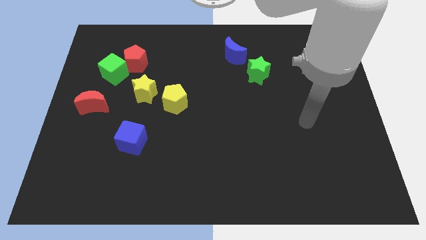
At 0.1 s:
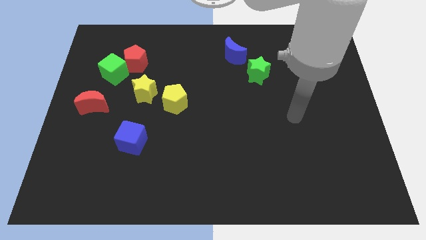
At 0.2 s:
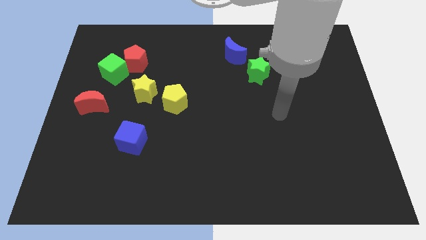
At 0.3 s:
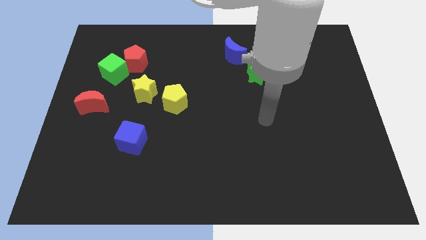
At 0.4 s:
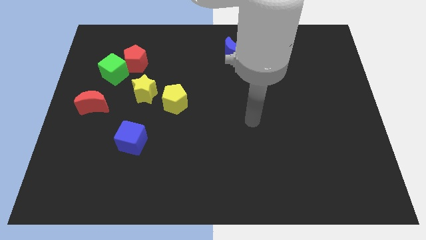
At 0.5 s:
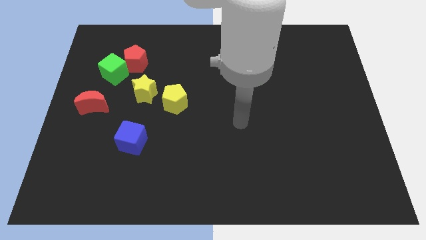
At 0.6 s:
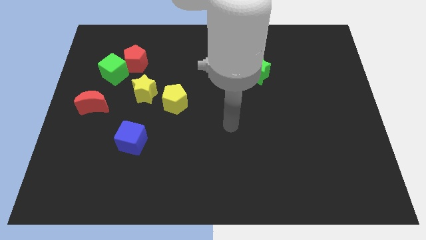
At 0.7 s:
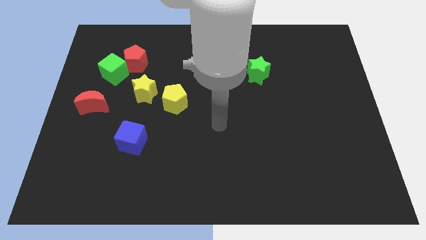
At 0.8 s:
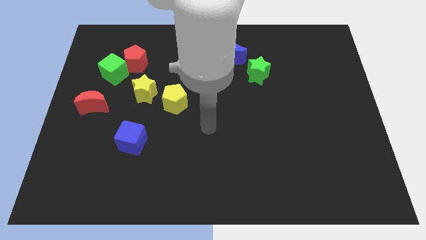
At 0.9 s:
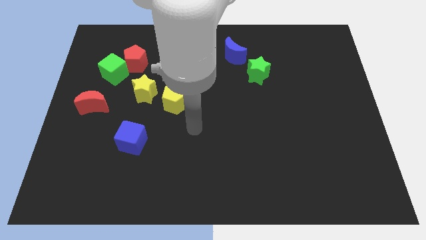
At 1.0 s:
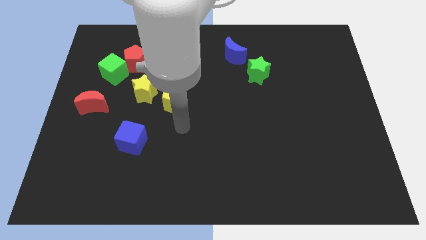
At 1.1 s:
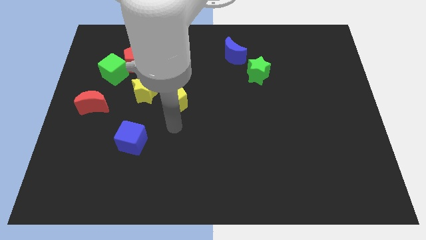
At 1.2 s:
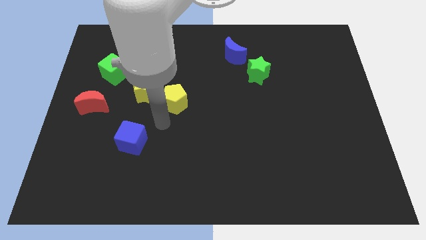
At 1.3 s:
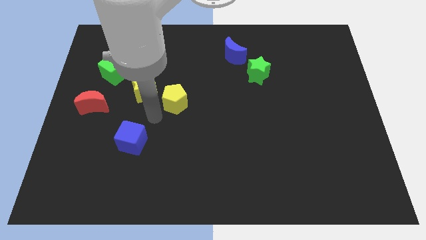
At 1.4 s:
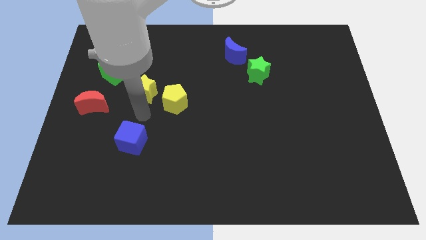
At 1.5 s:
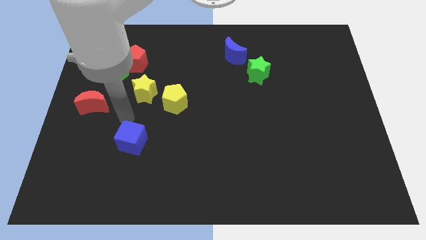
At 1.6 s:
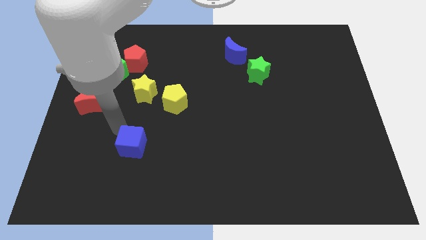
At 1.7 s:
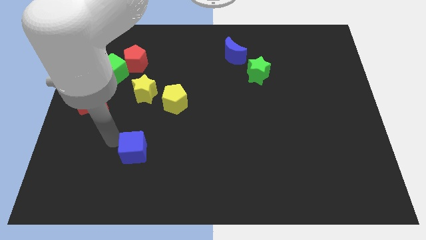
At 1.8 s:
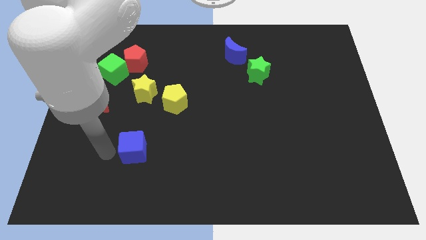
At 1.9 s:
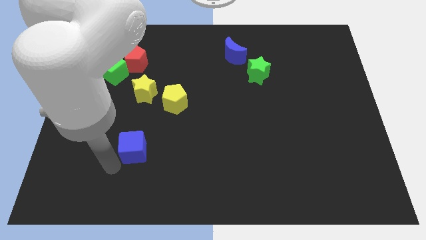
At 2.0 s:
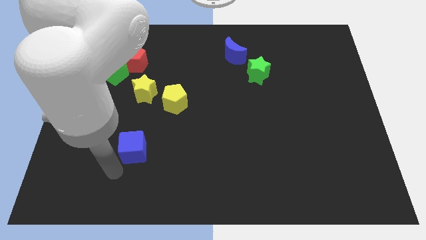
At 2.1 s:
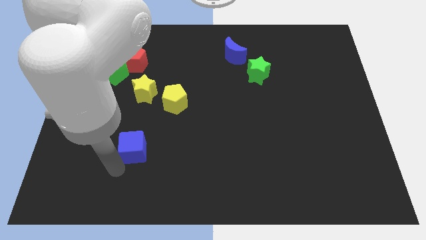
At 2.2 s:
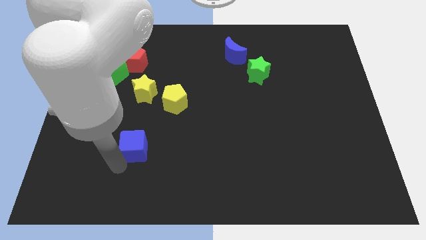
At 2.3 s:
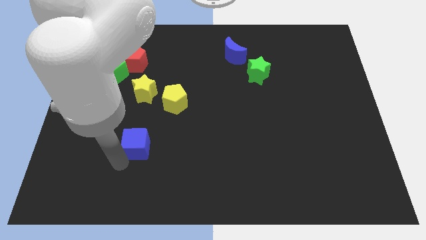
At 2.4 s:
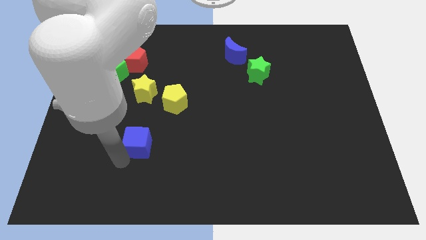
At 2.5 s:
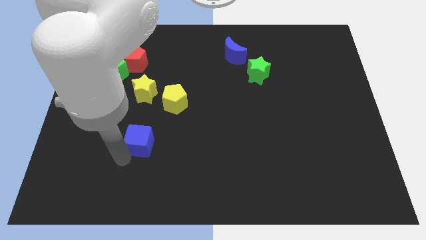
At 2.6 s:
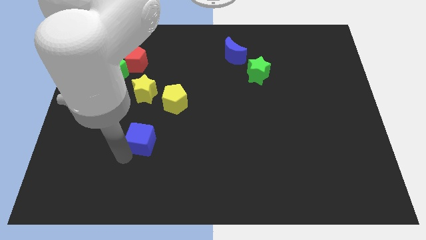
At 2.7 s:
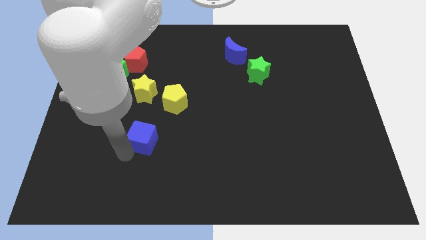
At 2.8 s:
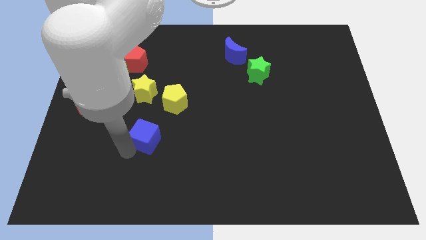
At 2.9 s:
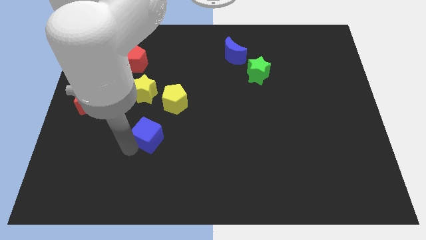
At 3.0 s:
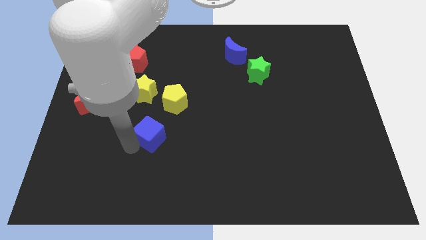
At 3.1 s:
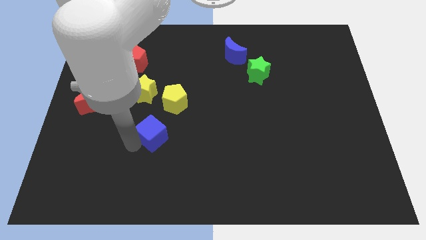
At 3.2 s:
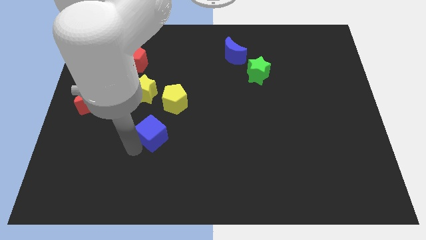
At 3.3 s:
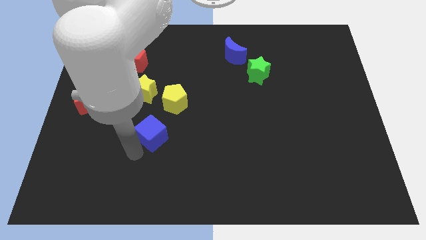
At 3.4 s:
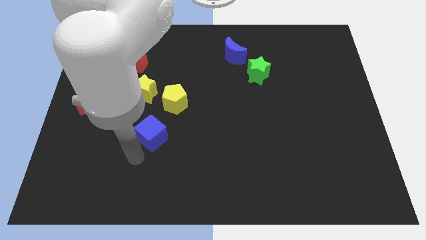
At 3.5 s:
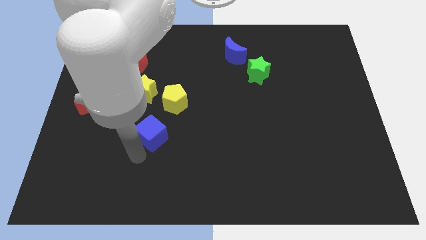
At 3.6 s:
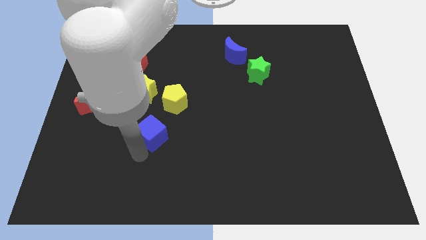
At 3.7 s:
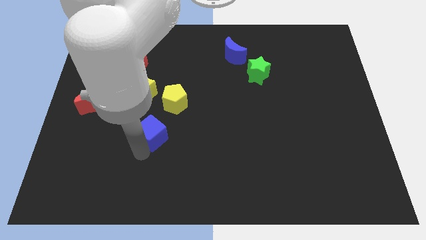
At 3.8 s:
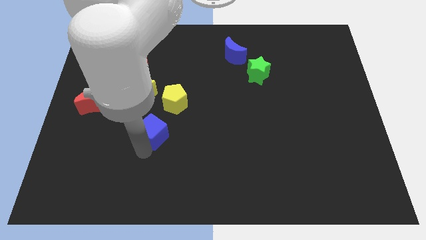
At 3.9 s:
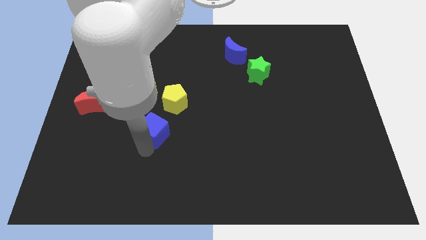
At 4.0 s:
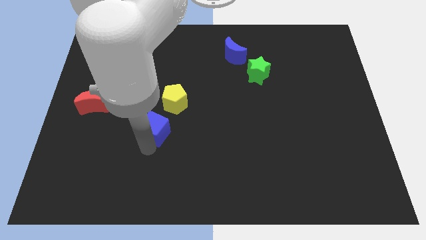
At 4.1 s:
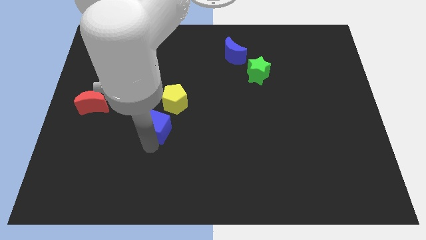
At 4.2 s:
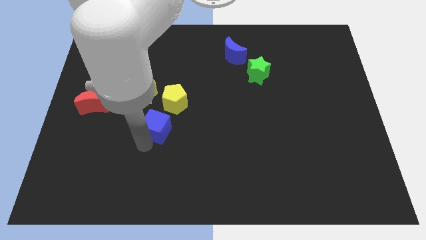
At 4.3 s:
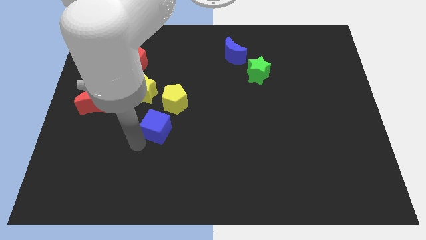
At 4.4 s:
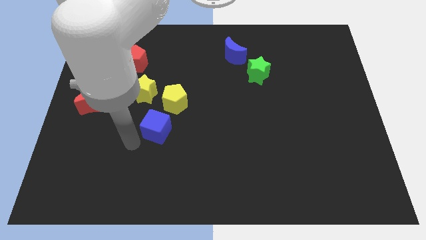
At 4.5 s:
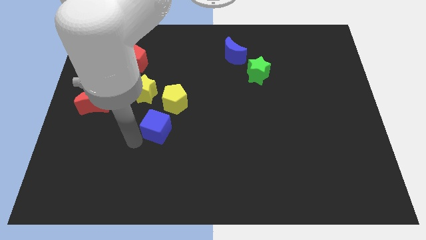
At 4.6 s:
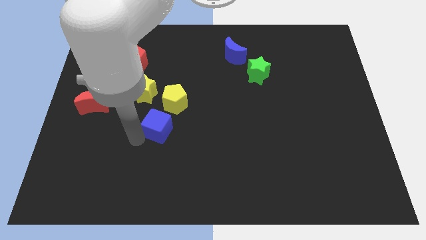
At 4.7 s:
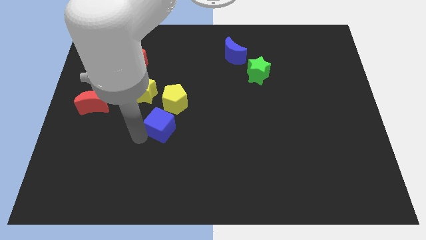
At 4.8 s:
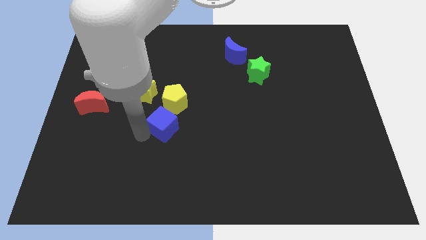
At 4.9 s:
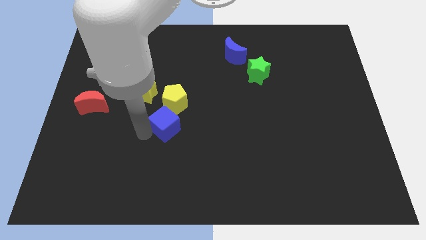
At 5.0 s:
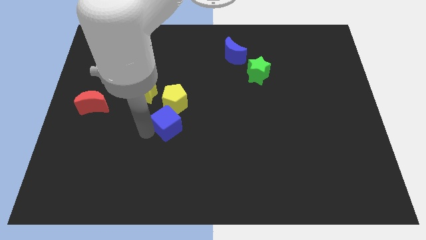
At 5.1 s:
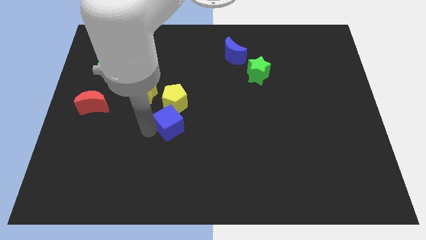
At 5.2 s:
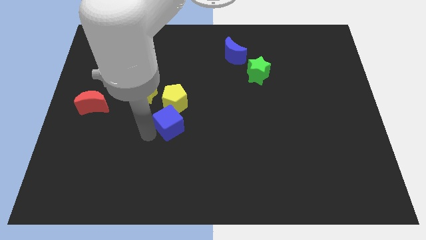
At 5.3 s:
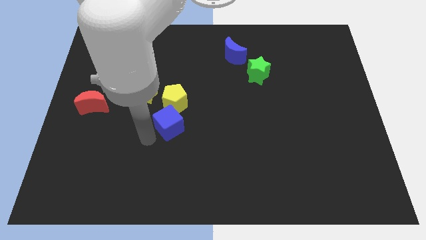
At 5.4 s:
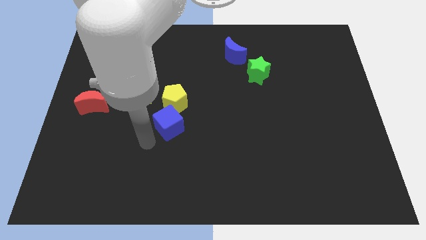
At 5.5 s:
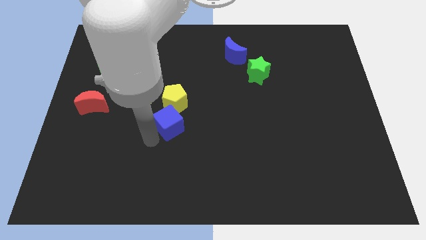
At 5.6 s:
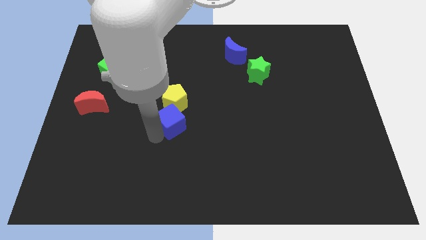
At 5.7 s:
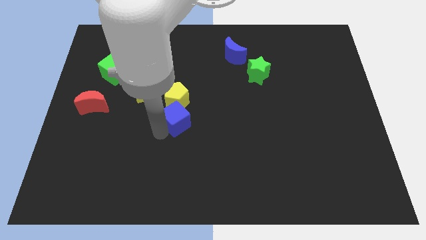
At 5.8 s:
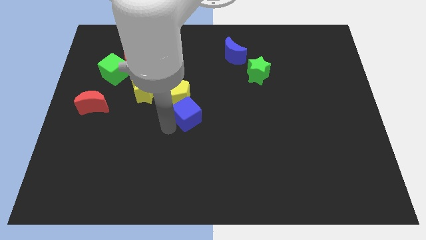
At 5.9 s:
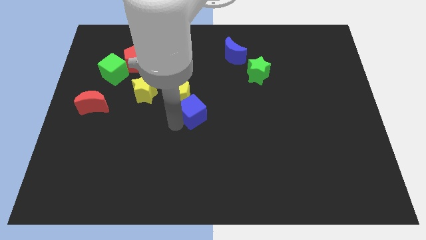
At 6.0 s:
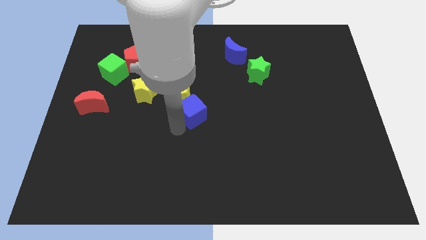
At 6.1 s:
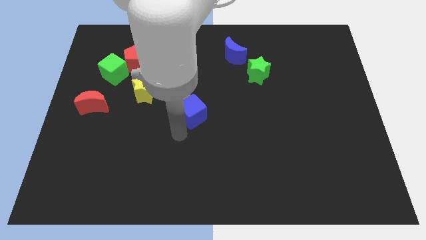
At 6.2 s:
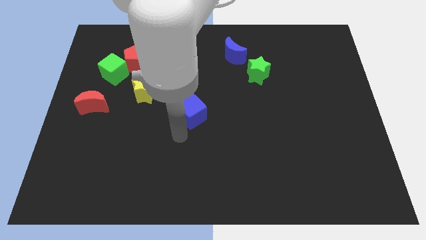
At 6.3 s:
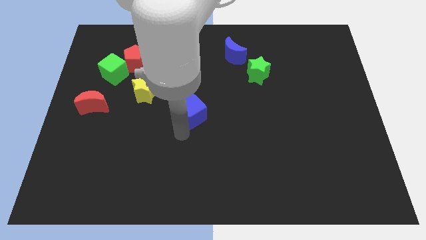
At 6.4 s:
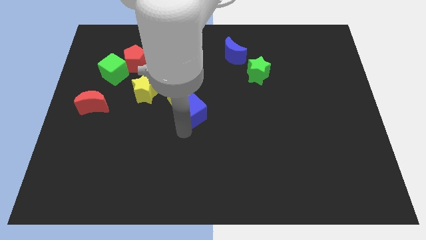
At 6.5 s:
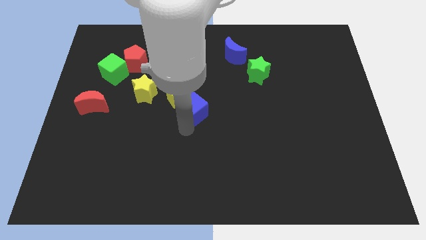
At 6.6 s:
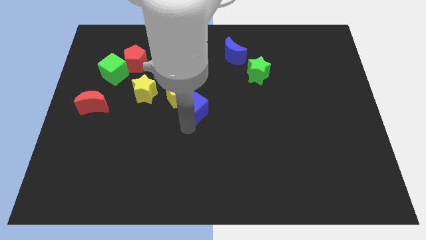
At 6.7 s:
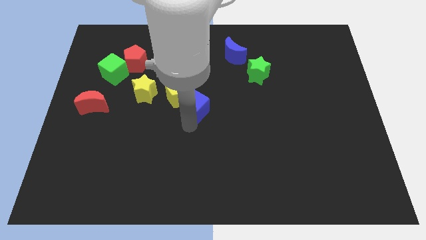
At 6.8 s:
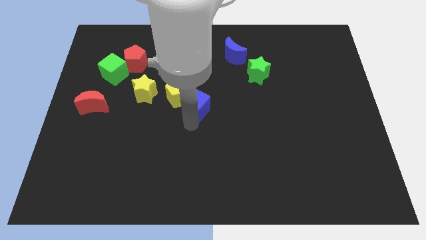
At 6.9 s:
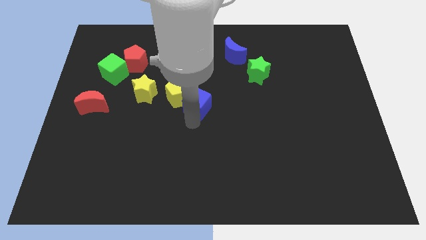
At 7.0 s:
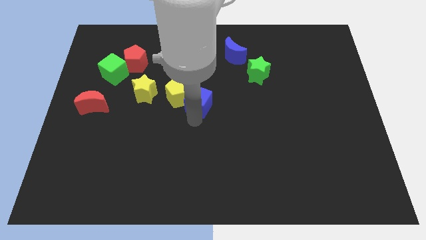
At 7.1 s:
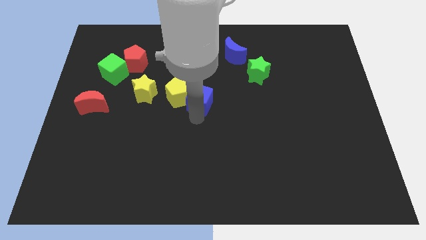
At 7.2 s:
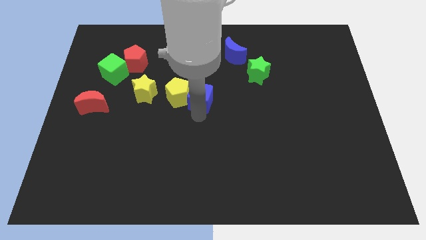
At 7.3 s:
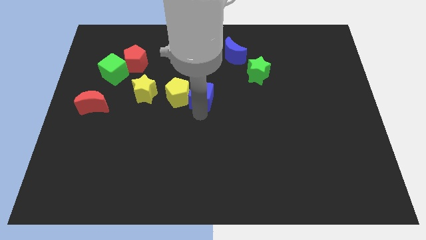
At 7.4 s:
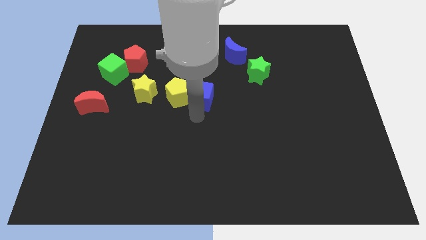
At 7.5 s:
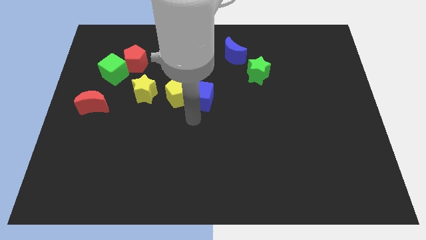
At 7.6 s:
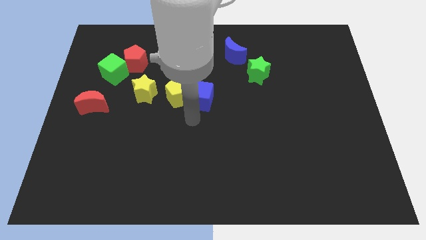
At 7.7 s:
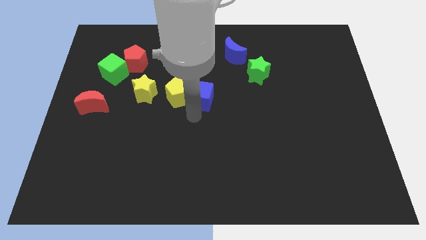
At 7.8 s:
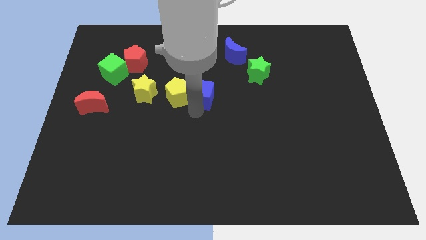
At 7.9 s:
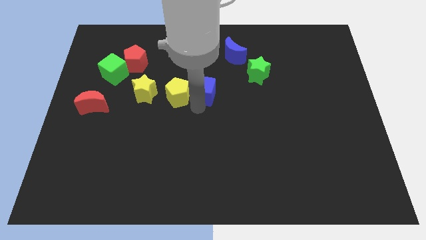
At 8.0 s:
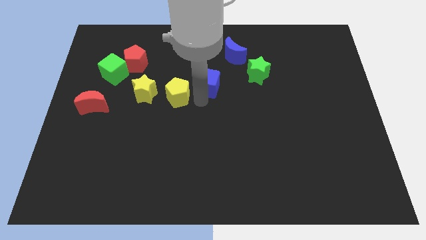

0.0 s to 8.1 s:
push the blue cube to the bottom left of the blue moon
